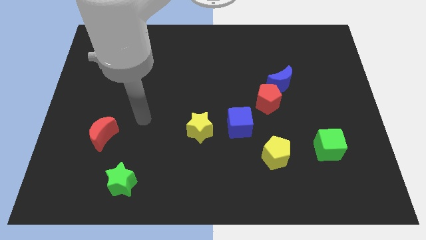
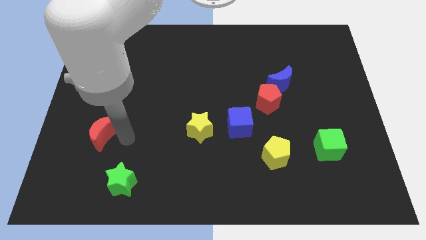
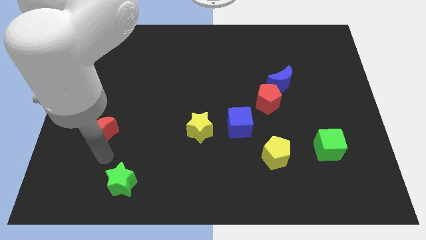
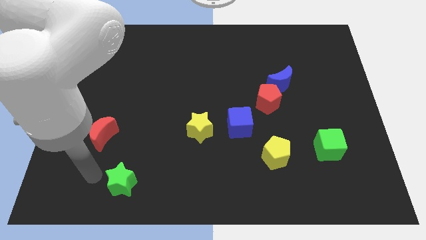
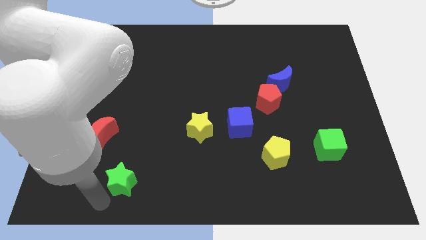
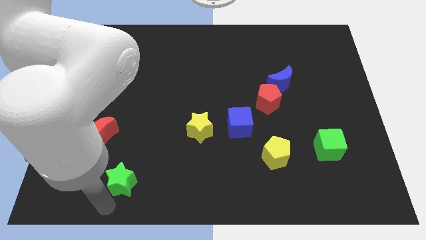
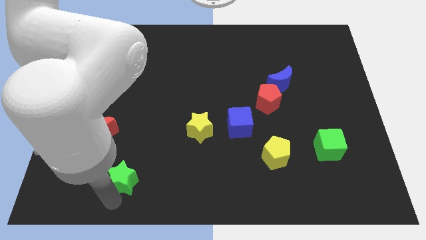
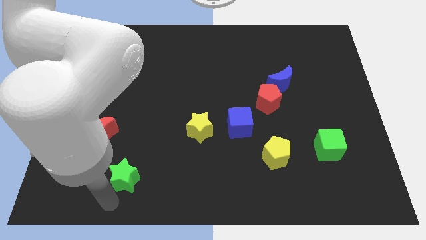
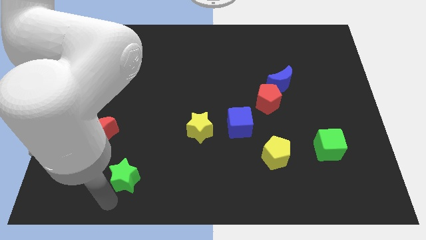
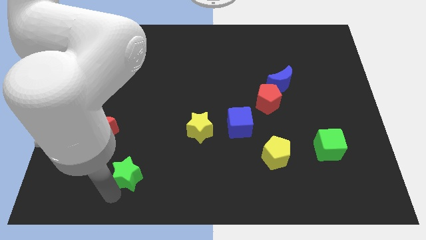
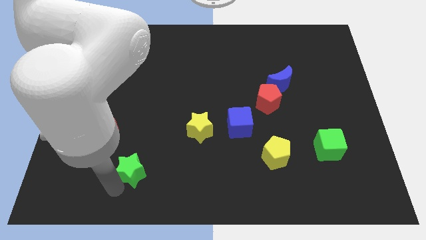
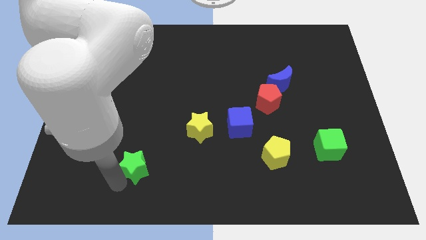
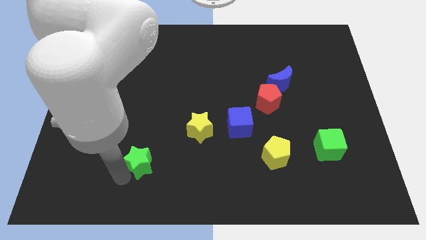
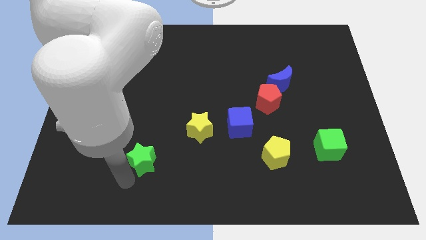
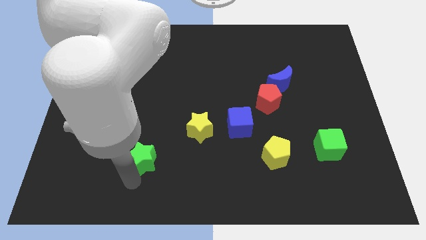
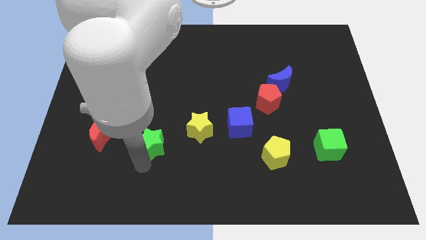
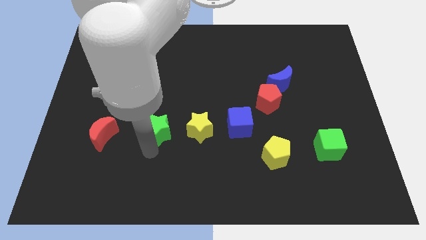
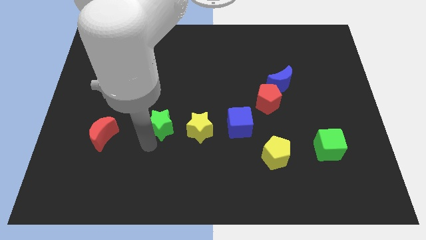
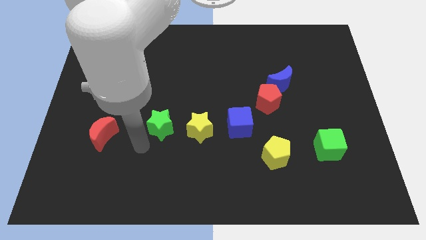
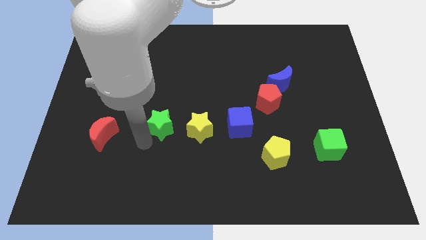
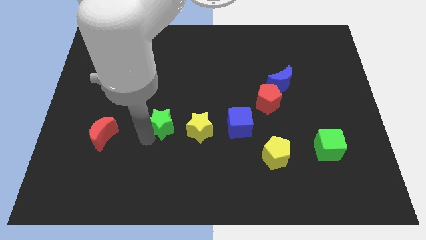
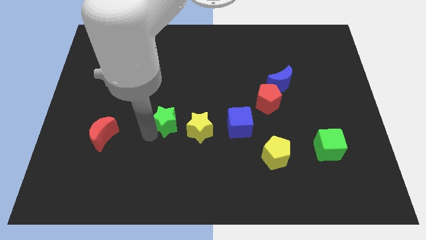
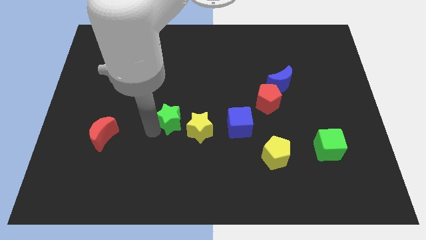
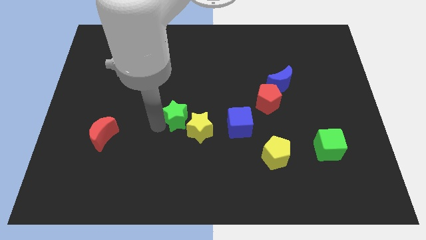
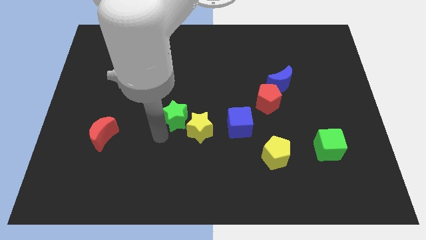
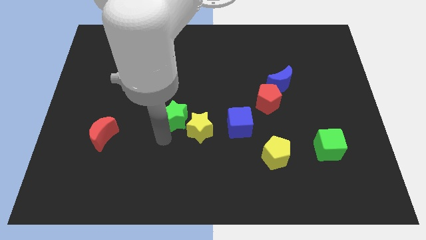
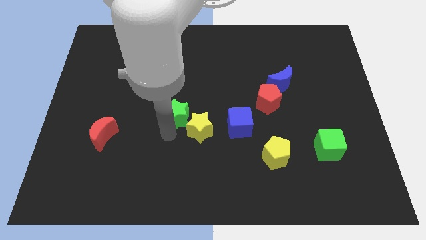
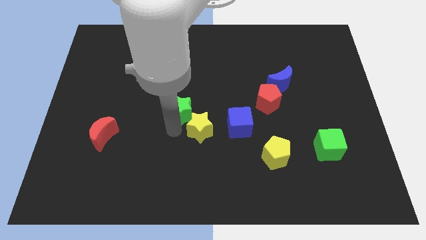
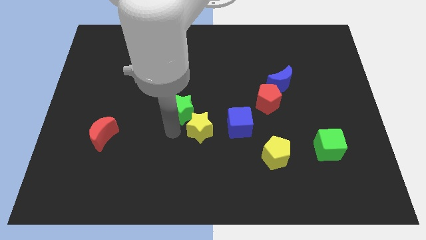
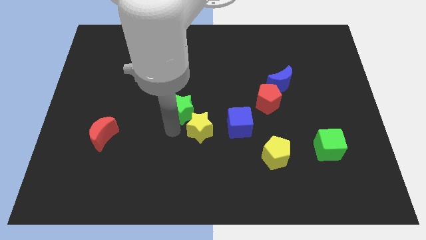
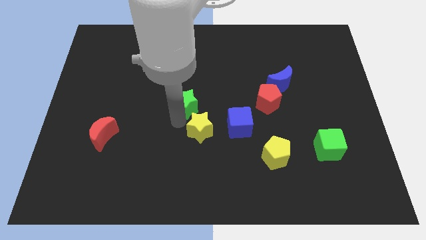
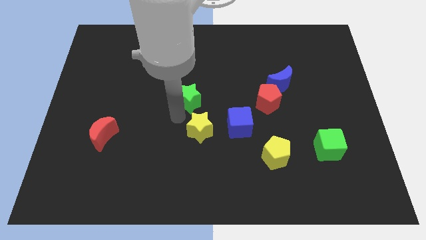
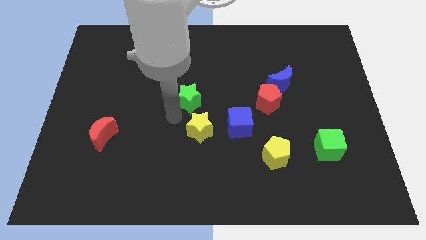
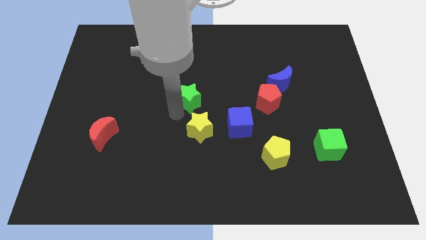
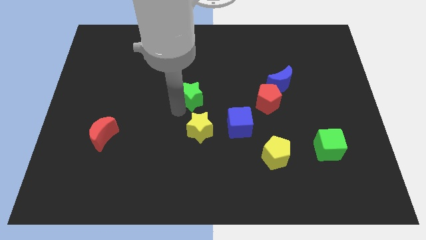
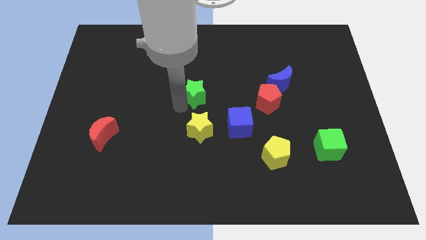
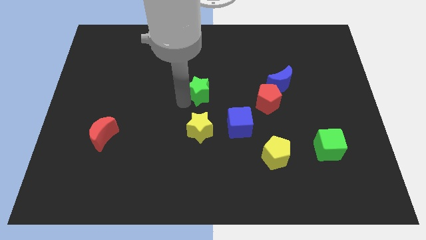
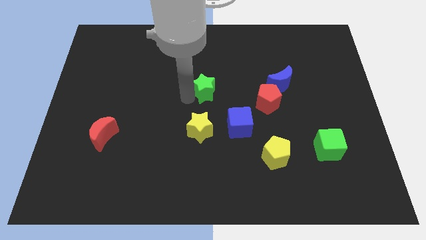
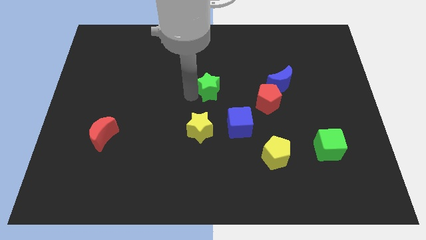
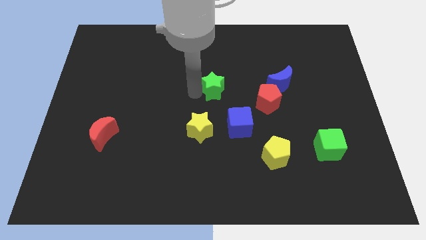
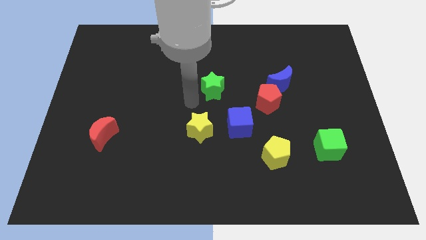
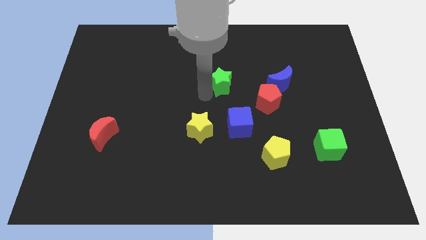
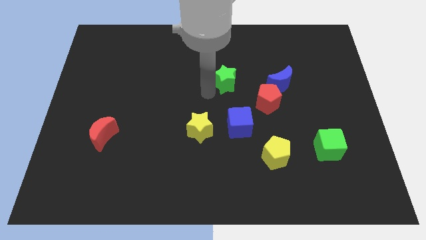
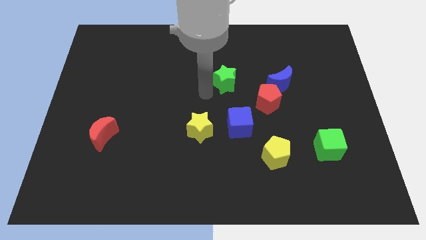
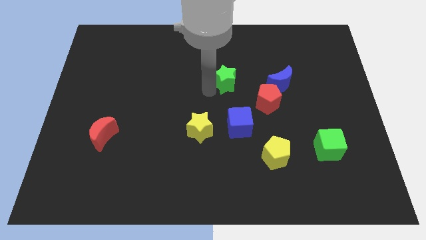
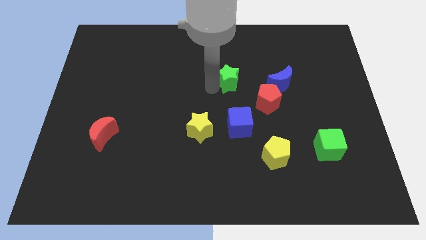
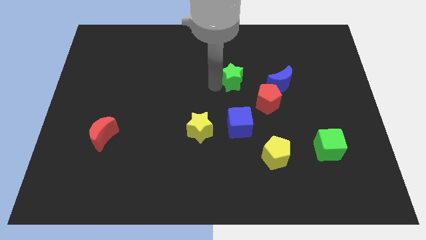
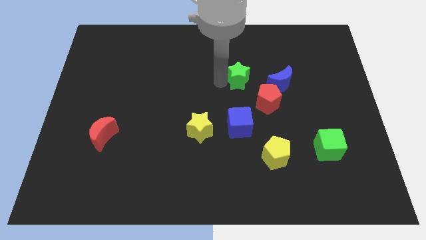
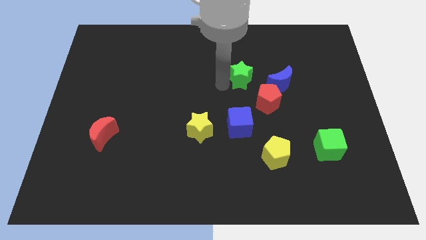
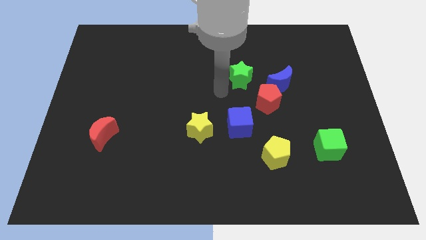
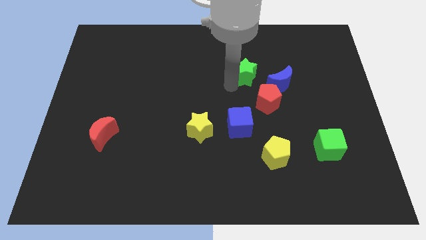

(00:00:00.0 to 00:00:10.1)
push the green star to the top left of the blue moon

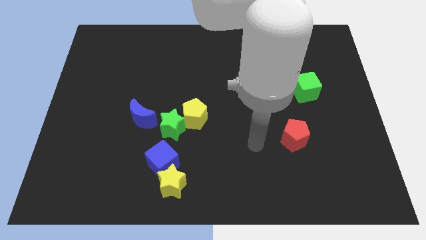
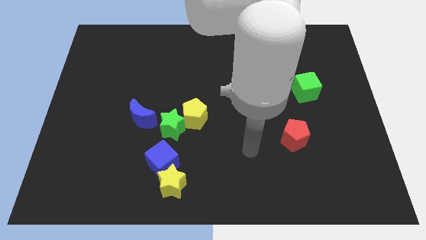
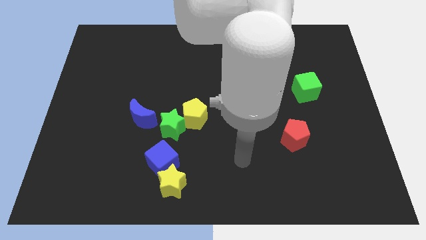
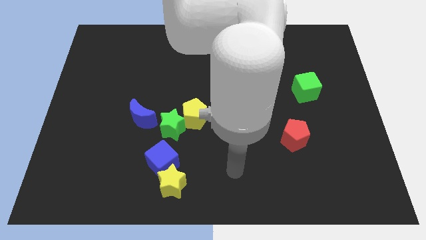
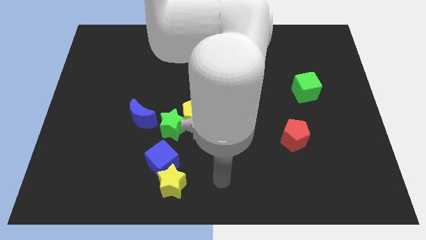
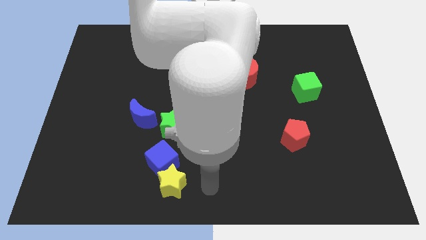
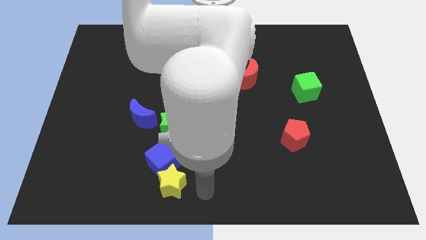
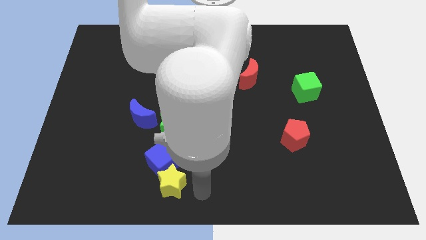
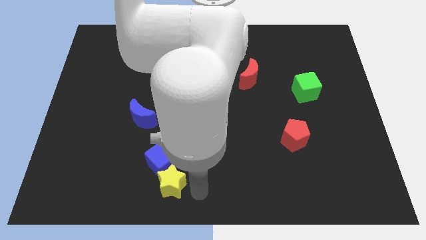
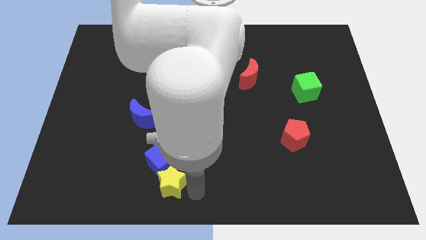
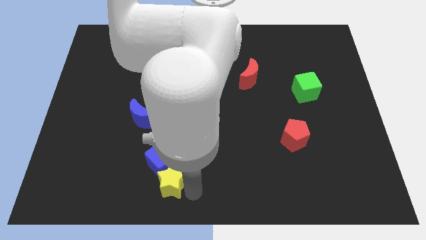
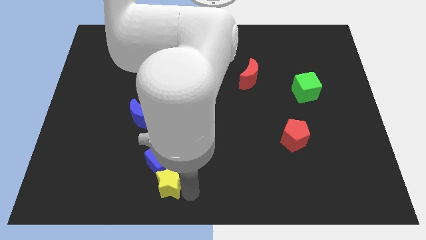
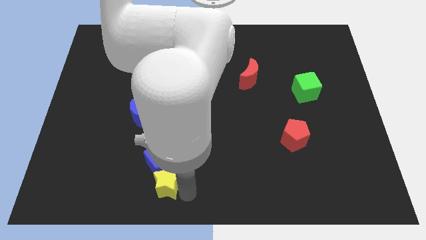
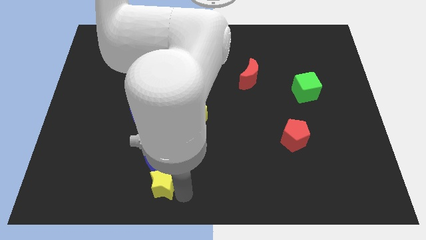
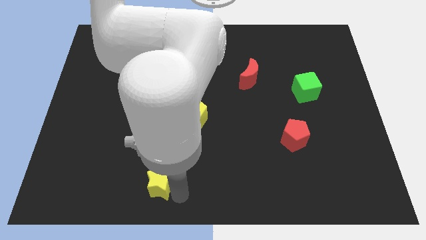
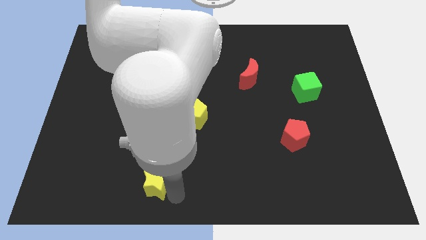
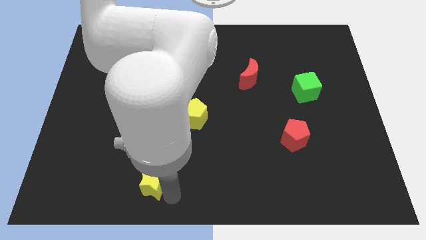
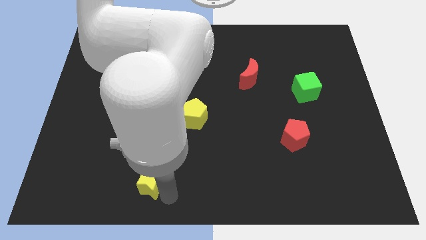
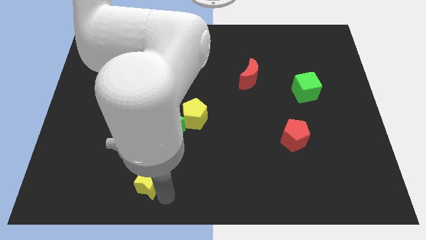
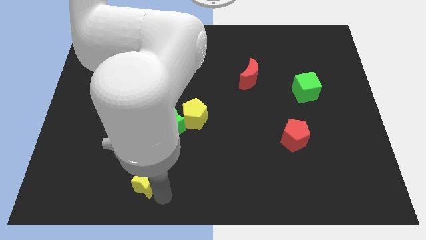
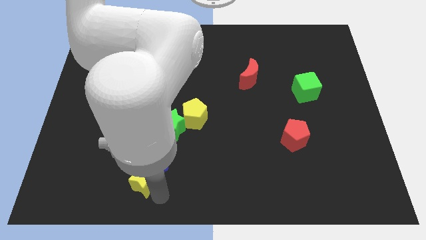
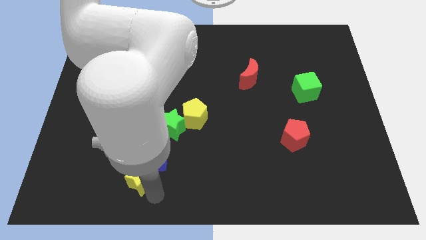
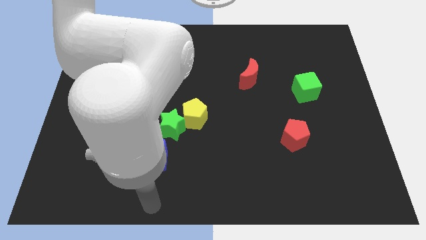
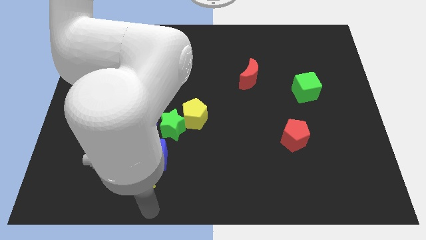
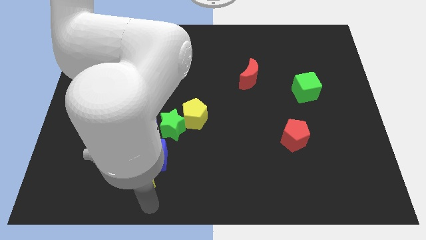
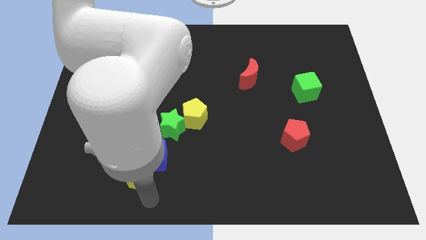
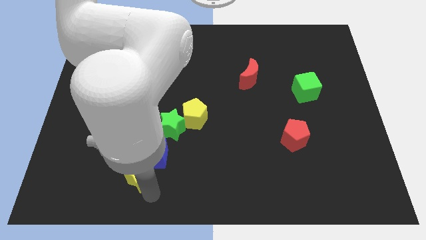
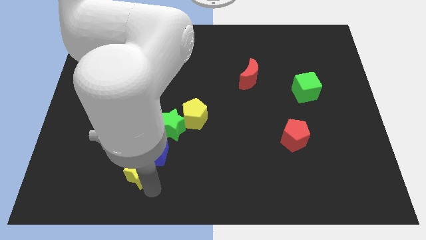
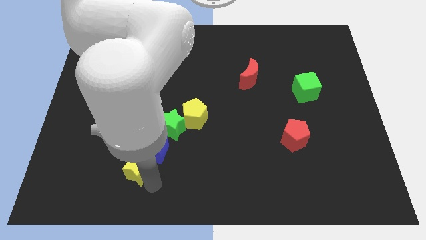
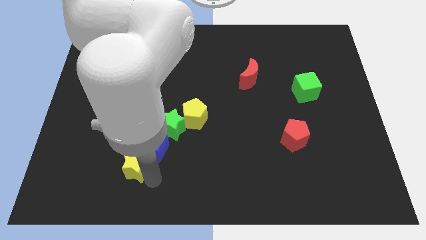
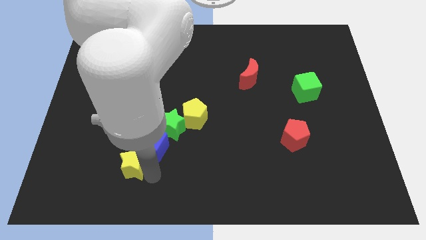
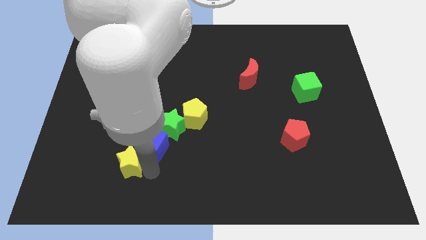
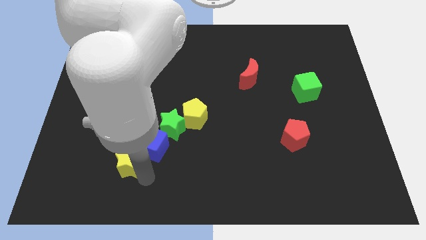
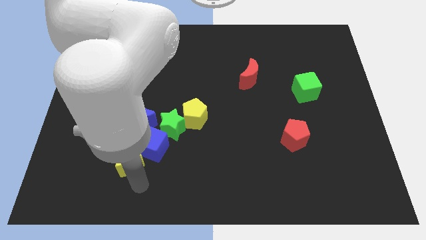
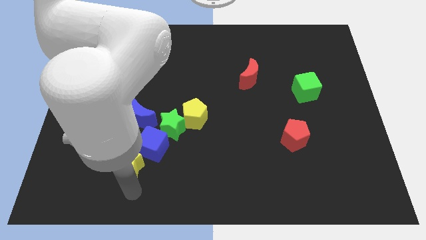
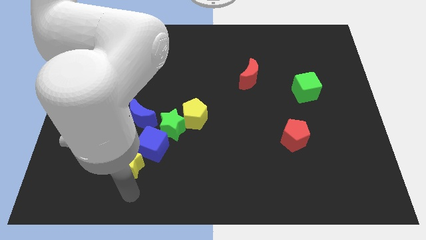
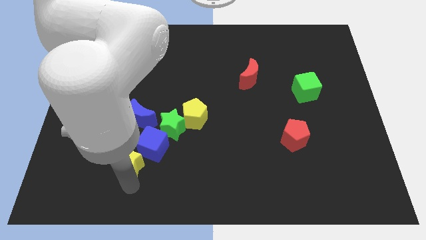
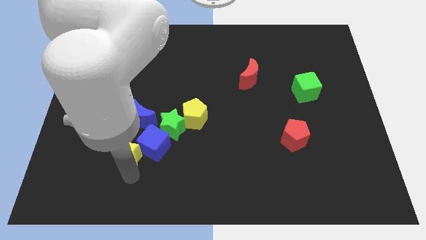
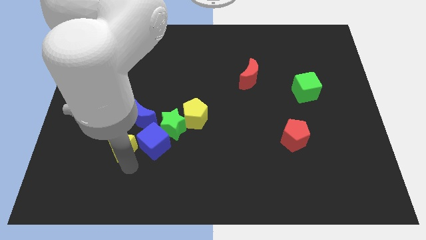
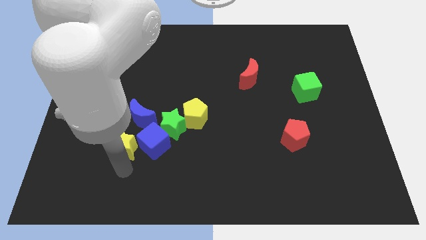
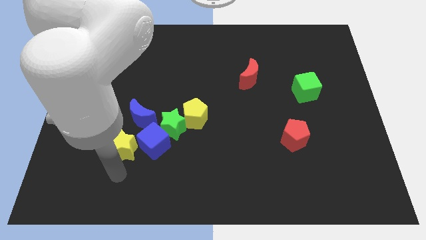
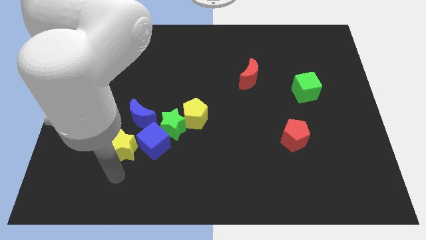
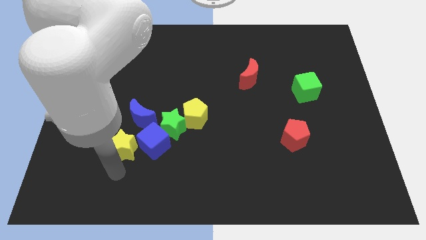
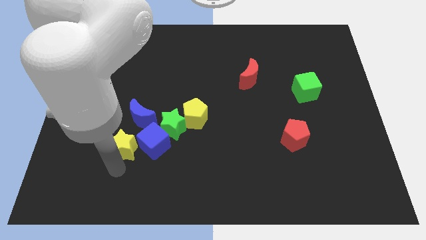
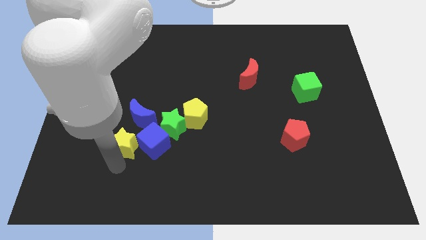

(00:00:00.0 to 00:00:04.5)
slide the yellow star to the top left of the blue cube
